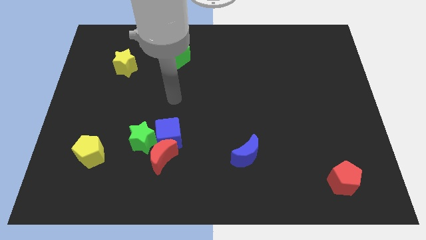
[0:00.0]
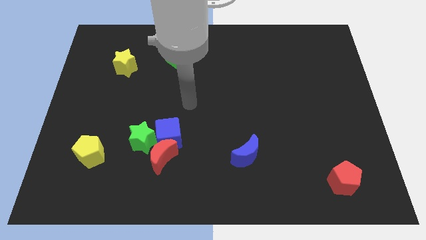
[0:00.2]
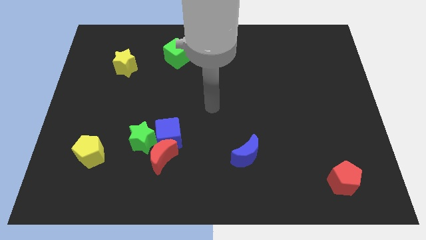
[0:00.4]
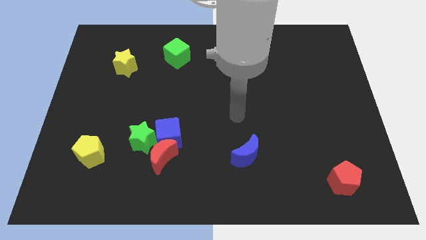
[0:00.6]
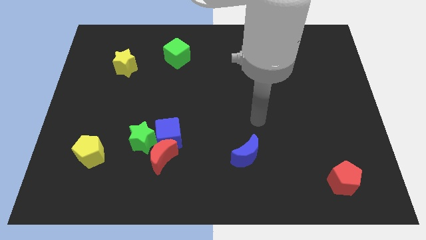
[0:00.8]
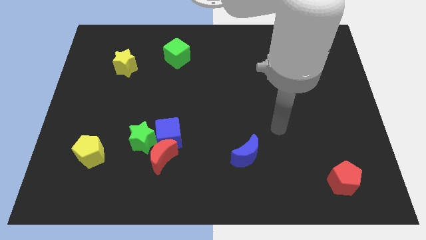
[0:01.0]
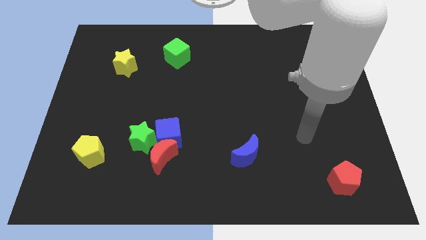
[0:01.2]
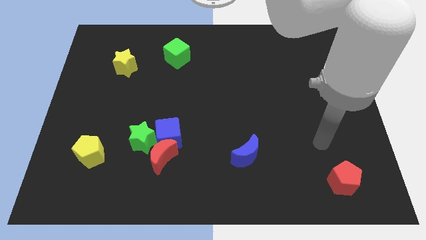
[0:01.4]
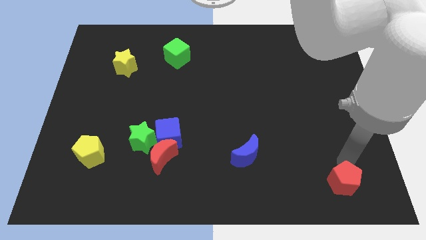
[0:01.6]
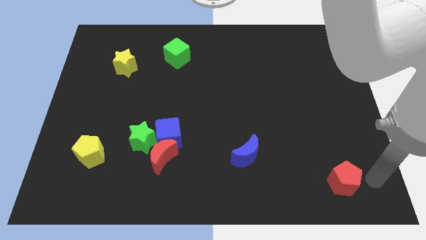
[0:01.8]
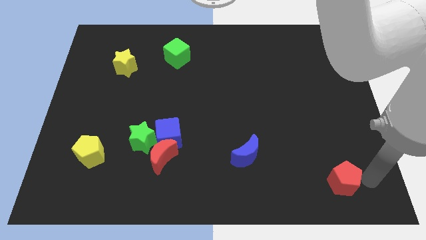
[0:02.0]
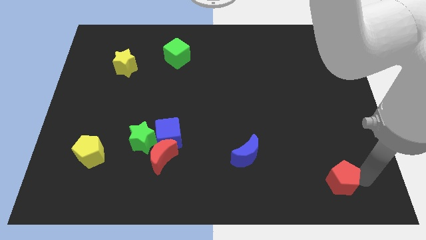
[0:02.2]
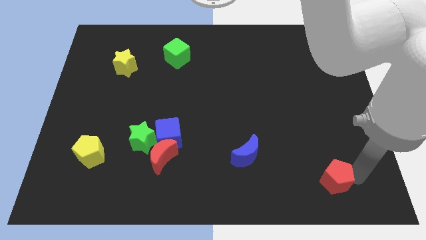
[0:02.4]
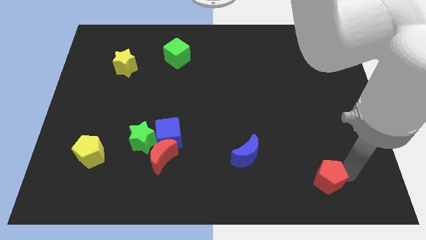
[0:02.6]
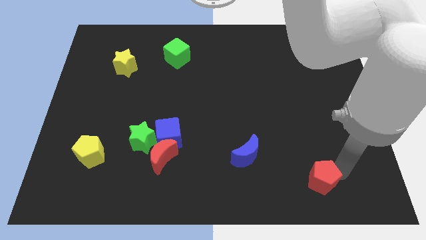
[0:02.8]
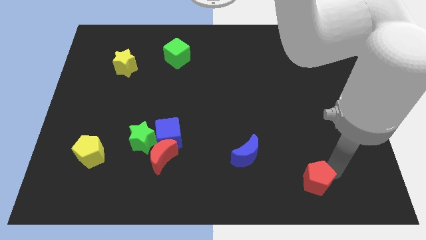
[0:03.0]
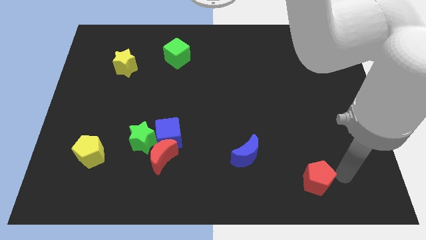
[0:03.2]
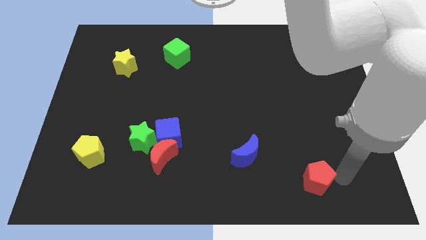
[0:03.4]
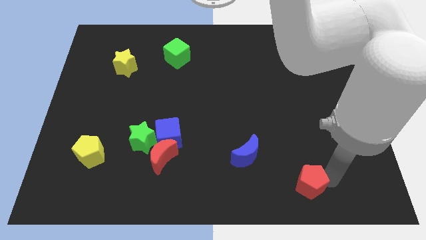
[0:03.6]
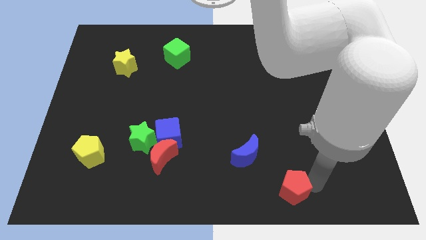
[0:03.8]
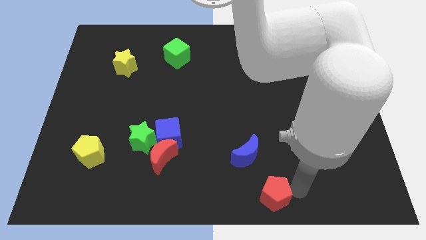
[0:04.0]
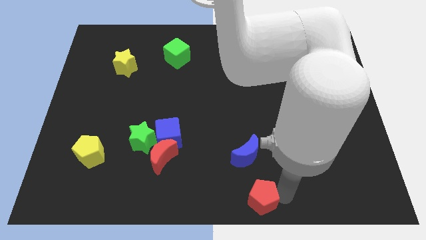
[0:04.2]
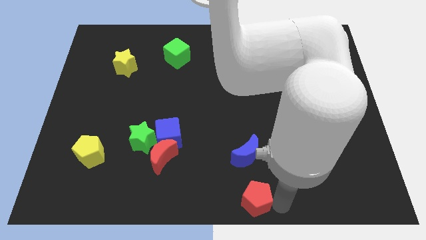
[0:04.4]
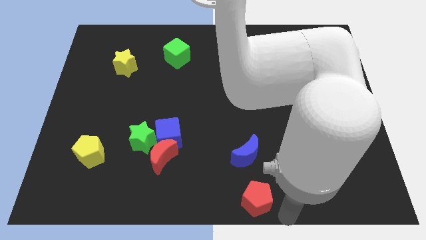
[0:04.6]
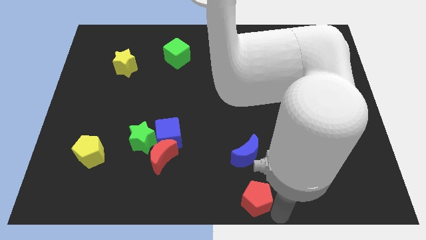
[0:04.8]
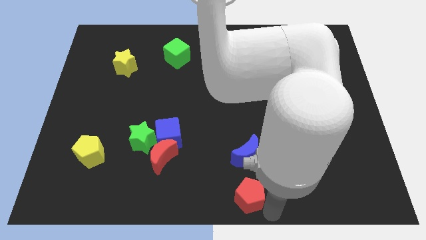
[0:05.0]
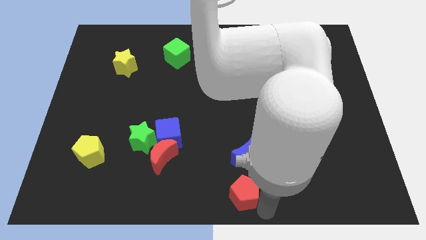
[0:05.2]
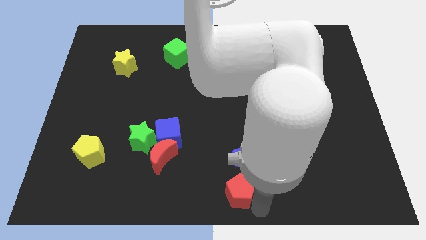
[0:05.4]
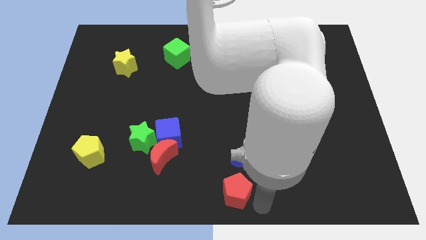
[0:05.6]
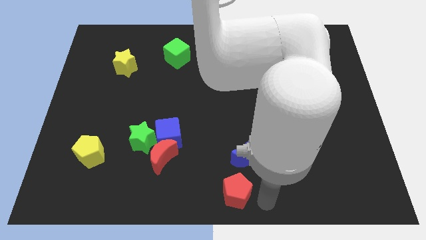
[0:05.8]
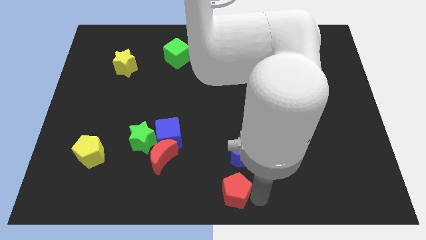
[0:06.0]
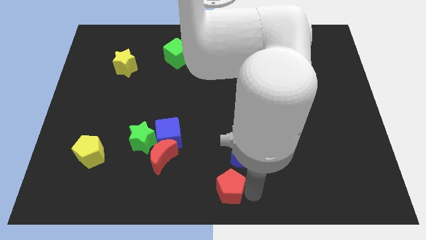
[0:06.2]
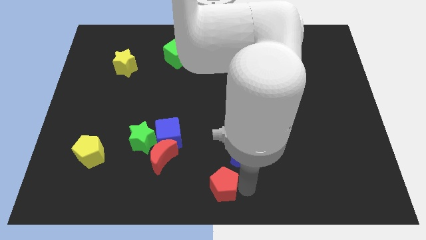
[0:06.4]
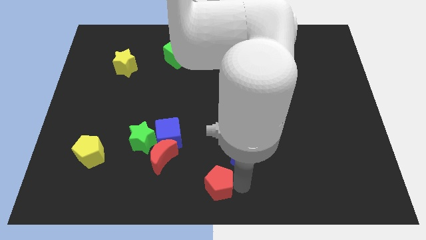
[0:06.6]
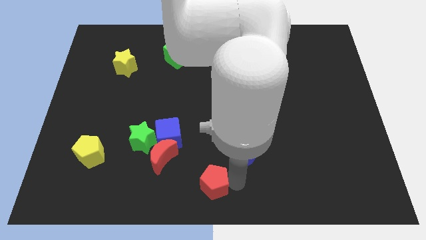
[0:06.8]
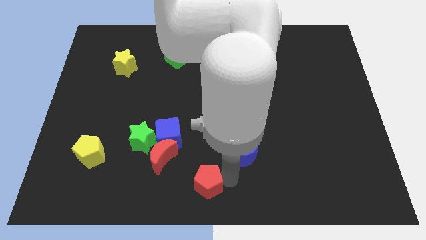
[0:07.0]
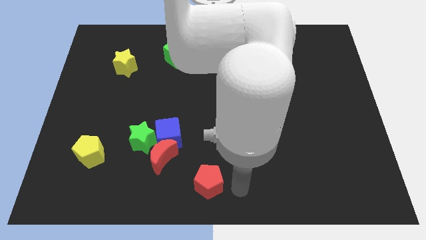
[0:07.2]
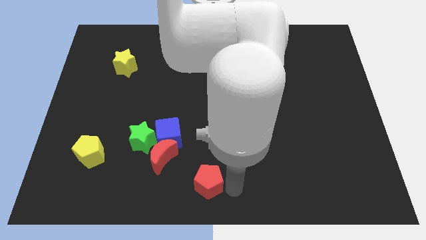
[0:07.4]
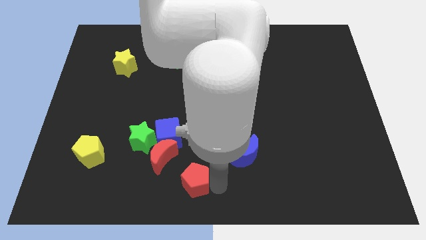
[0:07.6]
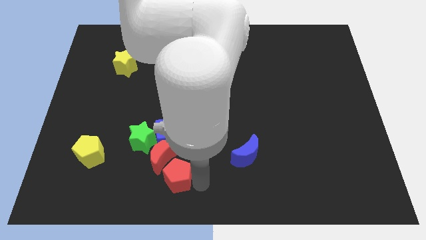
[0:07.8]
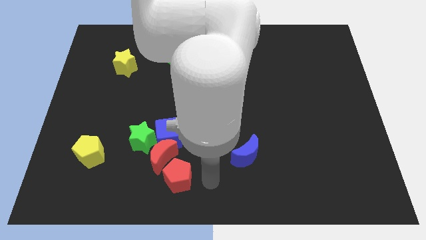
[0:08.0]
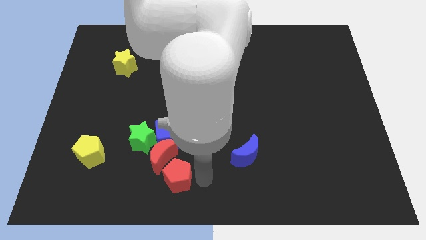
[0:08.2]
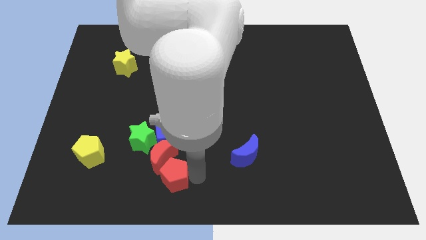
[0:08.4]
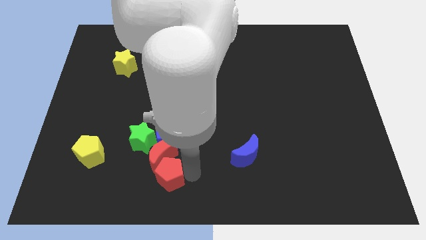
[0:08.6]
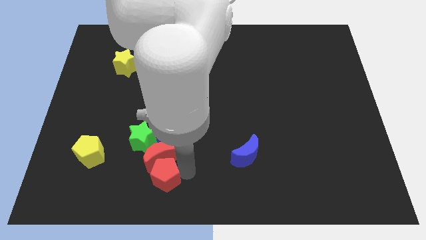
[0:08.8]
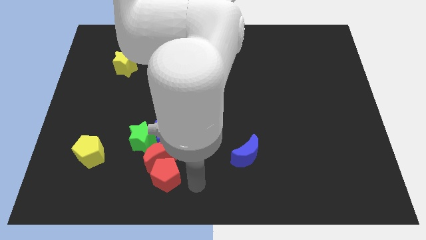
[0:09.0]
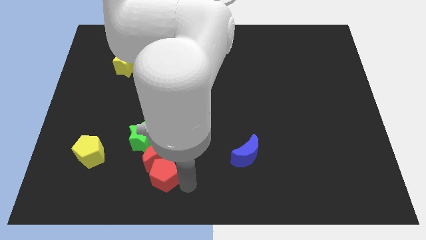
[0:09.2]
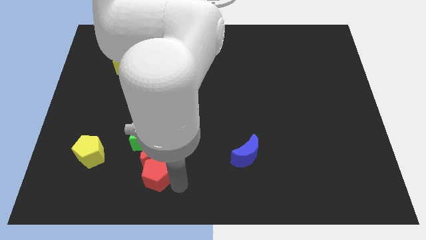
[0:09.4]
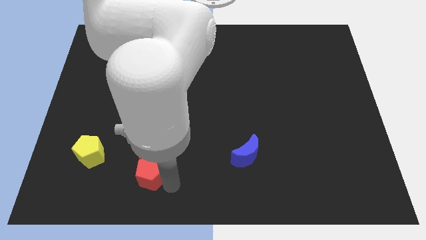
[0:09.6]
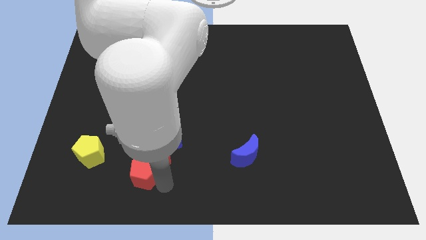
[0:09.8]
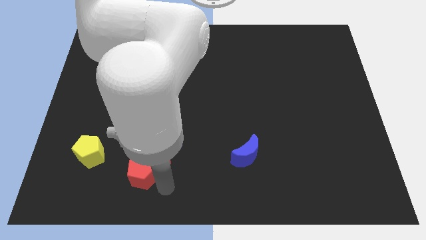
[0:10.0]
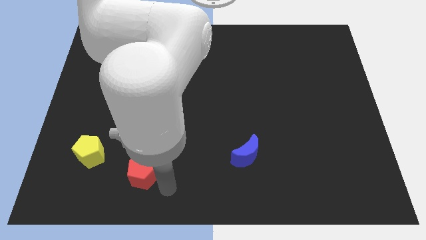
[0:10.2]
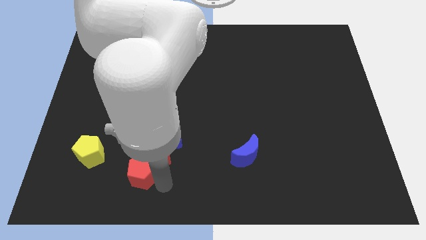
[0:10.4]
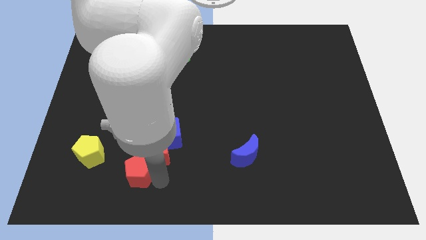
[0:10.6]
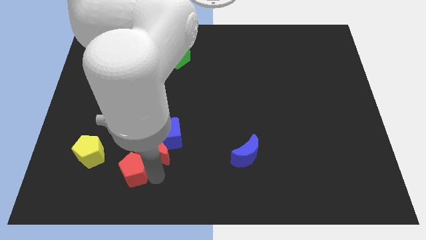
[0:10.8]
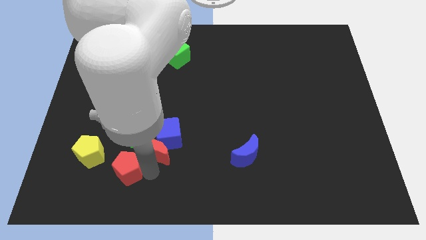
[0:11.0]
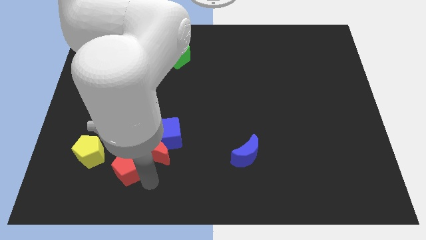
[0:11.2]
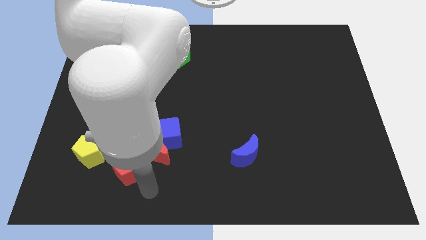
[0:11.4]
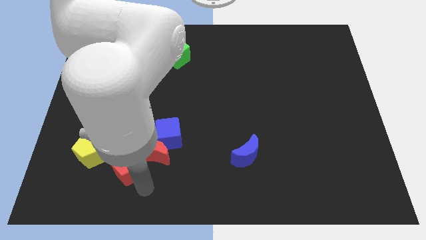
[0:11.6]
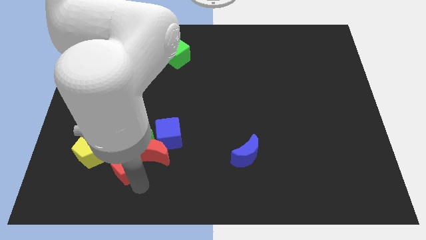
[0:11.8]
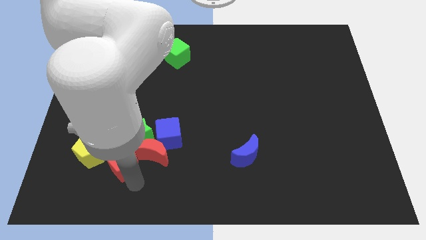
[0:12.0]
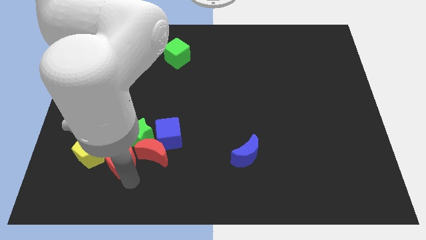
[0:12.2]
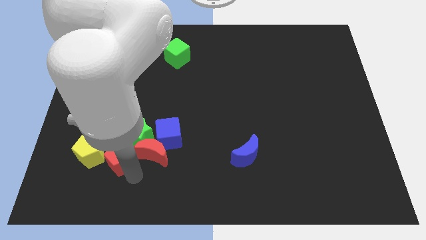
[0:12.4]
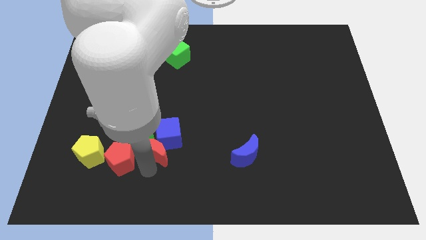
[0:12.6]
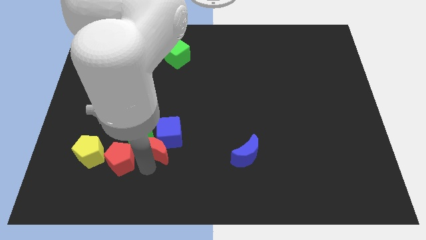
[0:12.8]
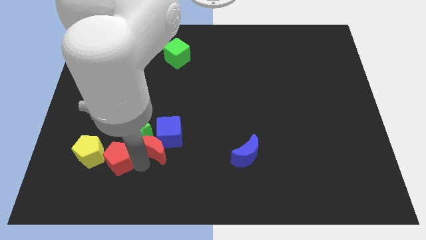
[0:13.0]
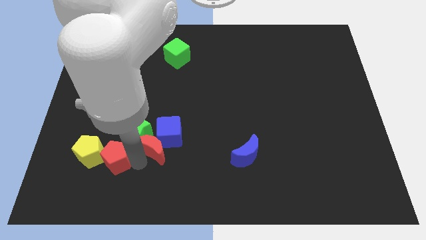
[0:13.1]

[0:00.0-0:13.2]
move the red pentagon next to the yellow pentagon
